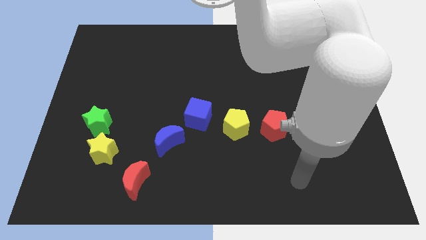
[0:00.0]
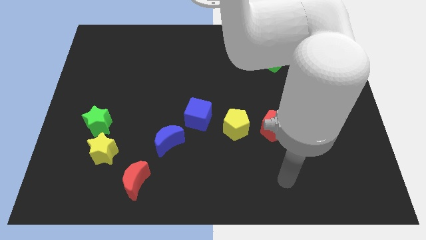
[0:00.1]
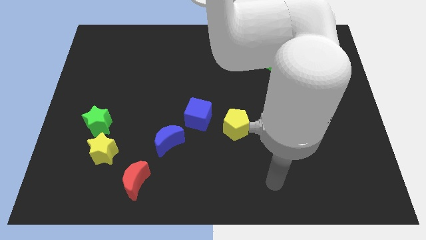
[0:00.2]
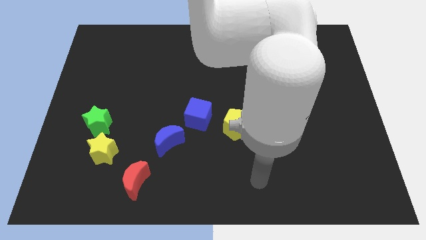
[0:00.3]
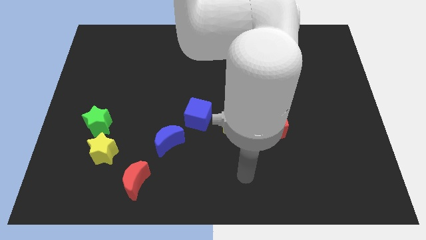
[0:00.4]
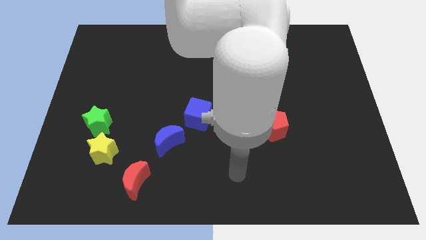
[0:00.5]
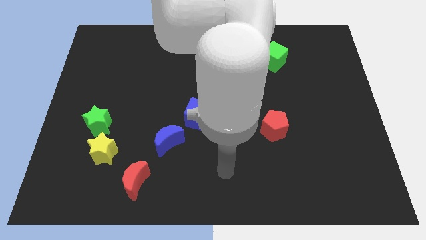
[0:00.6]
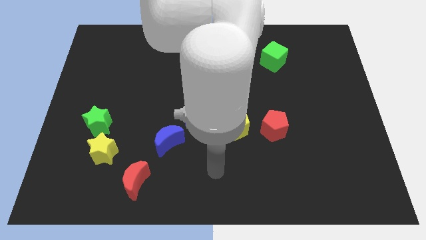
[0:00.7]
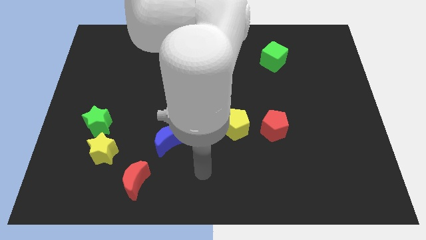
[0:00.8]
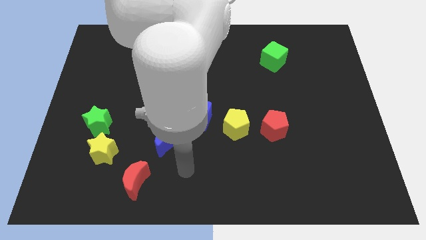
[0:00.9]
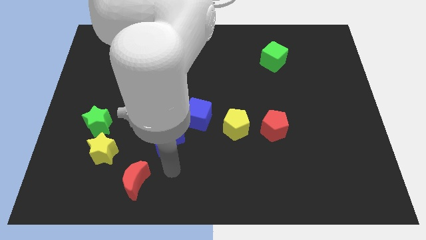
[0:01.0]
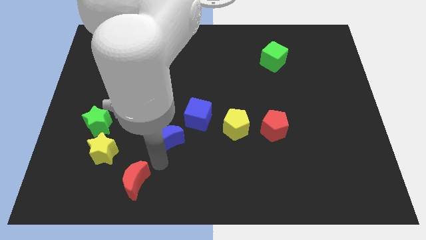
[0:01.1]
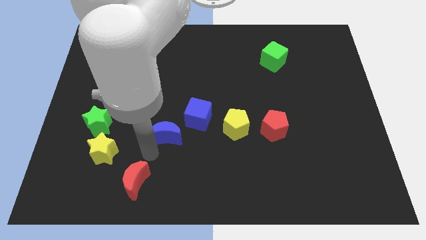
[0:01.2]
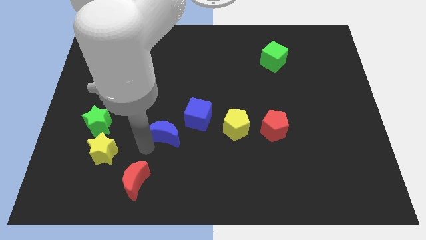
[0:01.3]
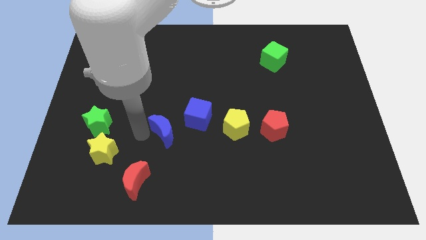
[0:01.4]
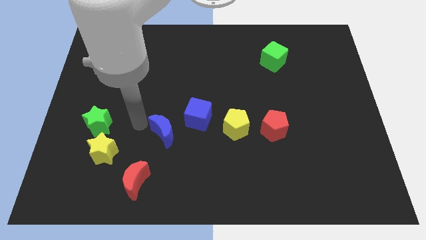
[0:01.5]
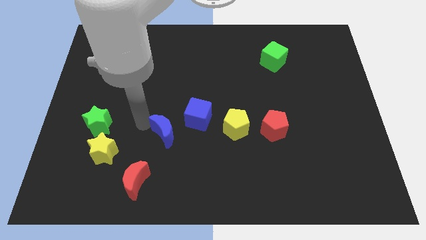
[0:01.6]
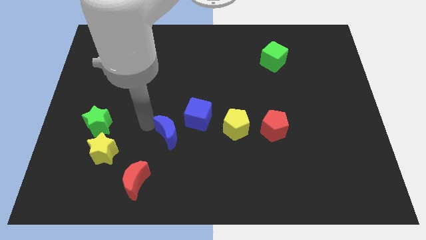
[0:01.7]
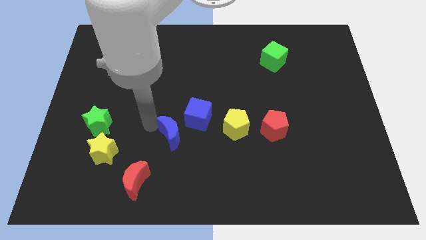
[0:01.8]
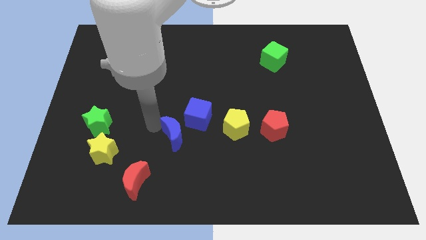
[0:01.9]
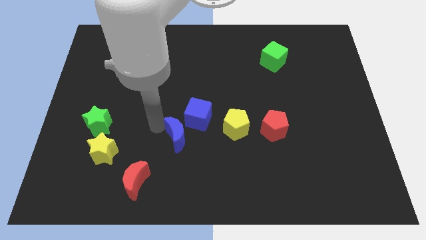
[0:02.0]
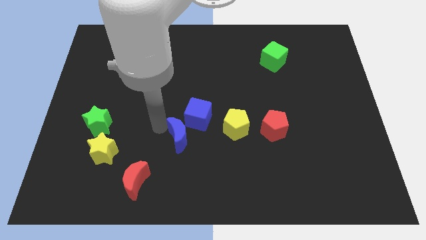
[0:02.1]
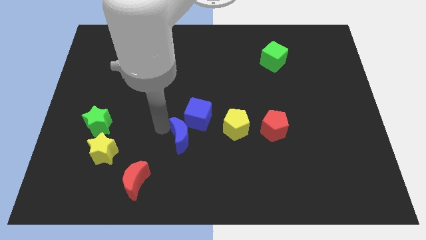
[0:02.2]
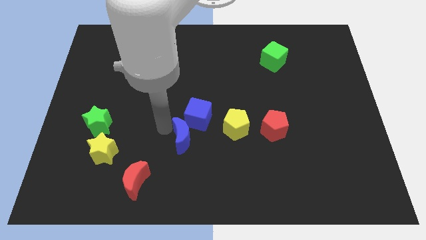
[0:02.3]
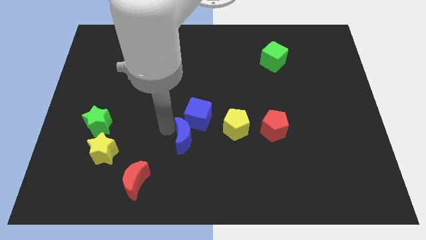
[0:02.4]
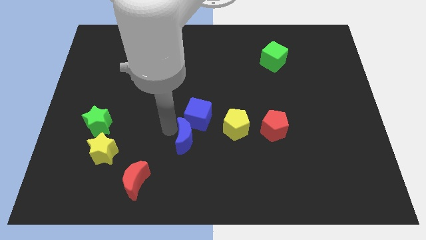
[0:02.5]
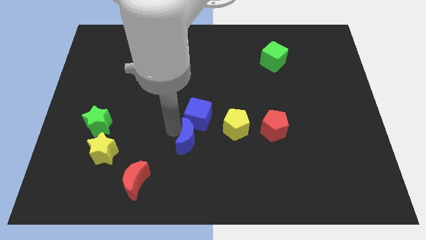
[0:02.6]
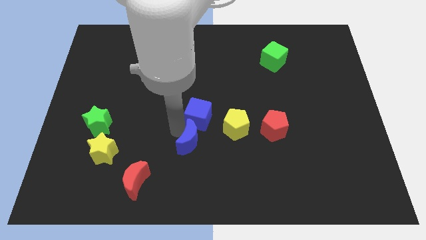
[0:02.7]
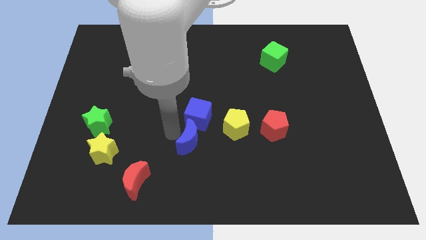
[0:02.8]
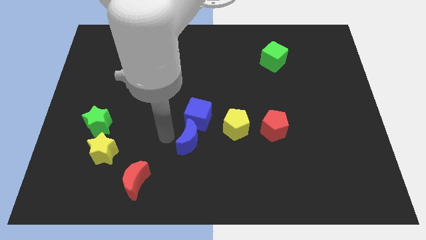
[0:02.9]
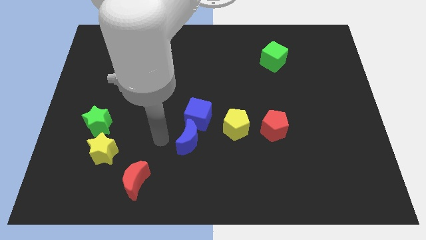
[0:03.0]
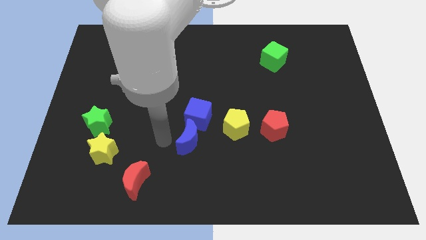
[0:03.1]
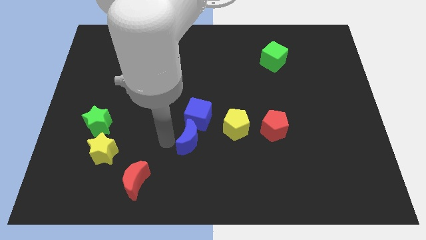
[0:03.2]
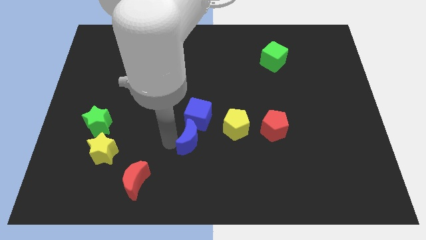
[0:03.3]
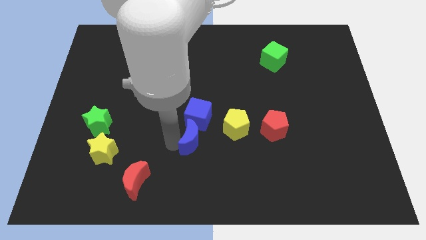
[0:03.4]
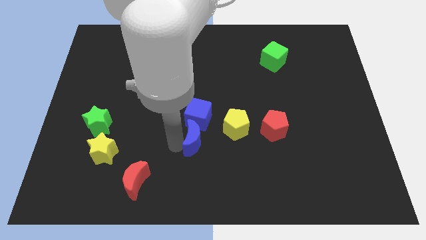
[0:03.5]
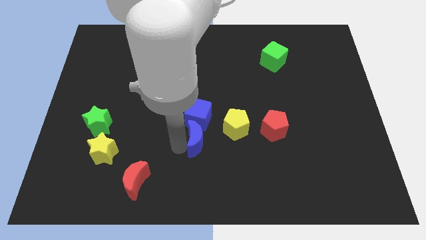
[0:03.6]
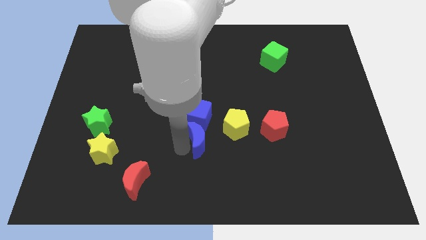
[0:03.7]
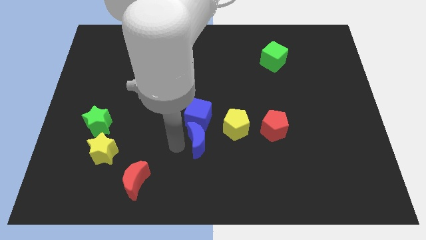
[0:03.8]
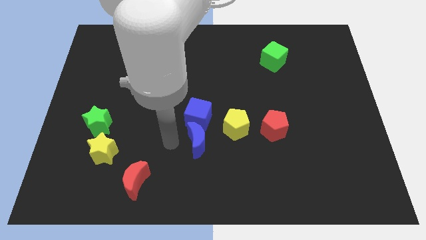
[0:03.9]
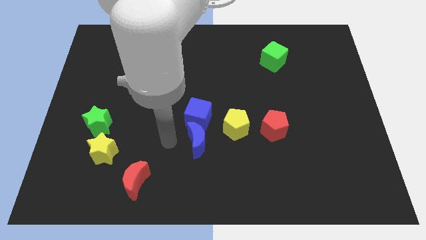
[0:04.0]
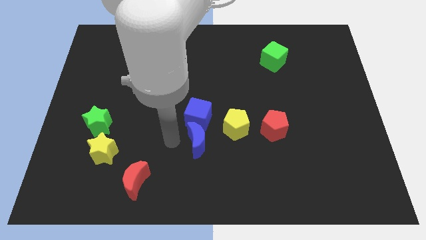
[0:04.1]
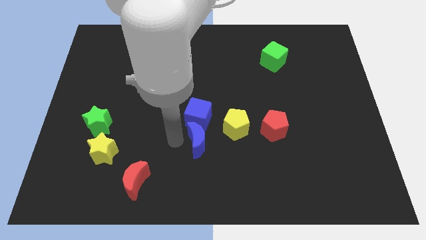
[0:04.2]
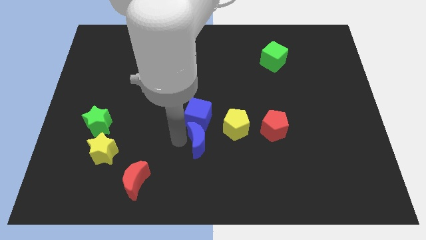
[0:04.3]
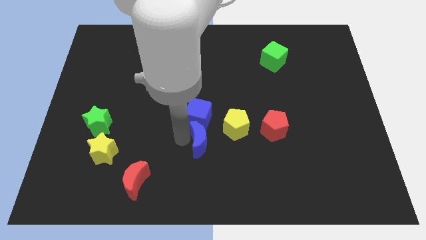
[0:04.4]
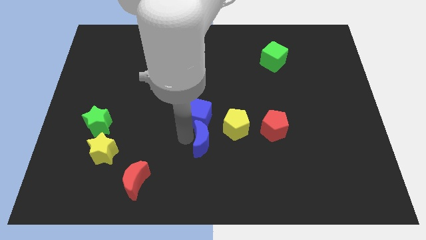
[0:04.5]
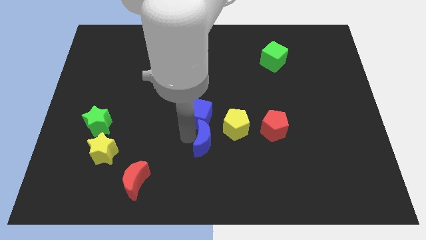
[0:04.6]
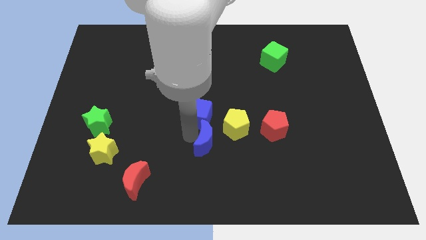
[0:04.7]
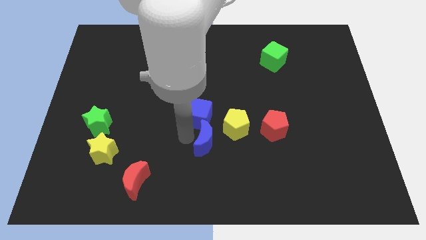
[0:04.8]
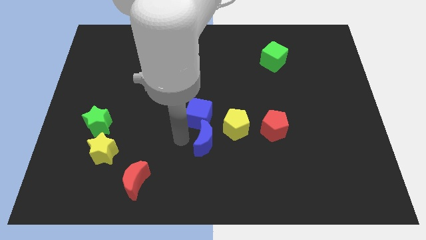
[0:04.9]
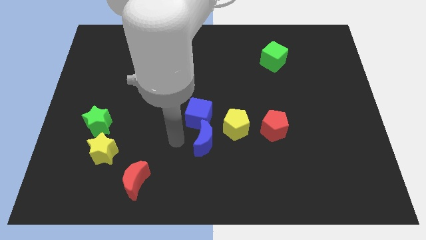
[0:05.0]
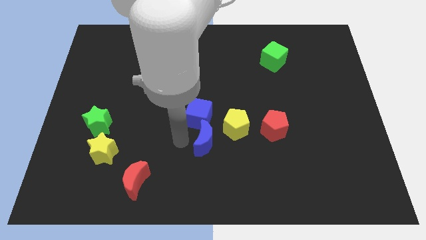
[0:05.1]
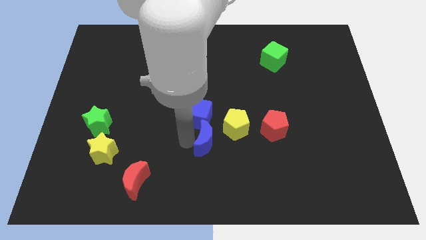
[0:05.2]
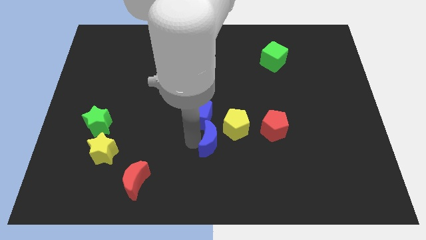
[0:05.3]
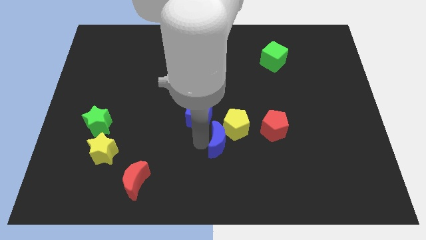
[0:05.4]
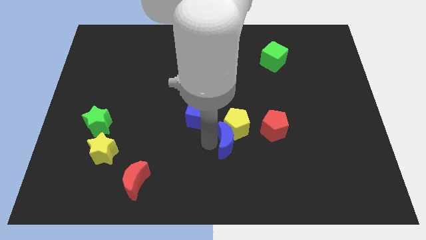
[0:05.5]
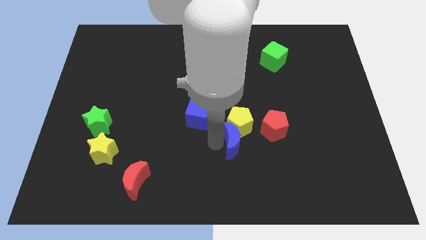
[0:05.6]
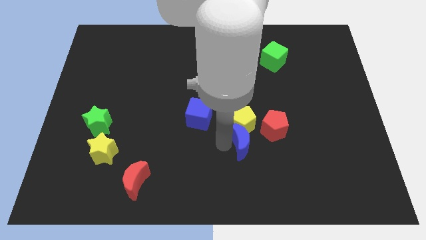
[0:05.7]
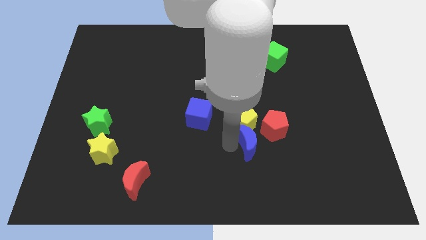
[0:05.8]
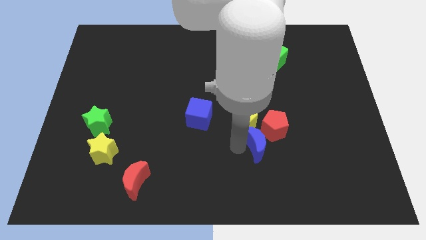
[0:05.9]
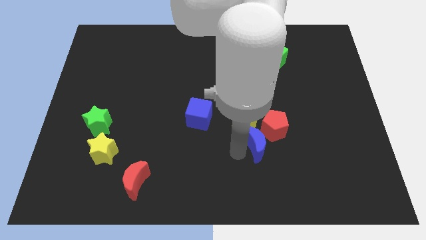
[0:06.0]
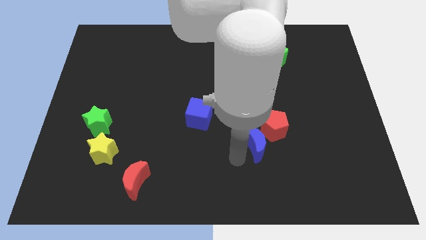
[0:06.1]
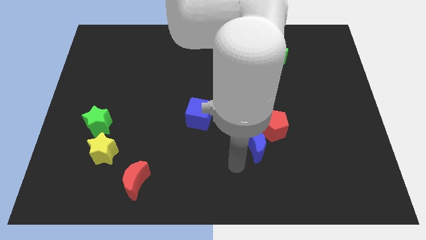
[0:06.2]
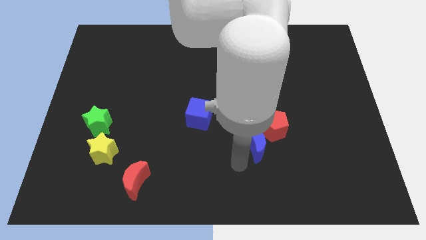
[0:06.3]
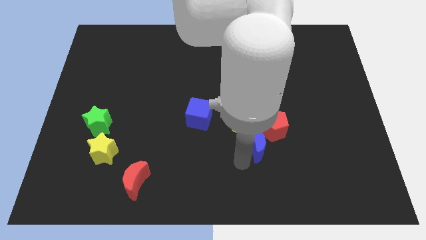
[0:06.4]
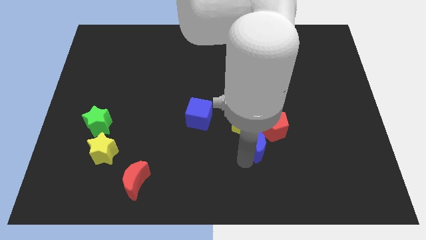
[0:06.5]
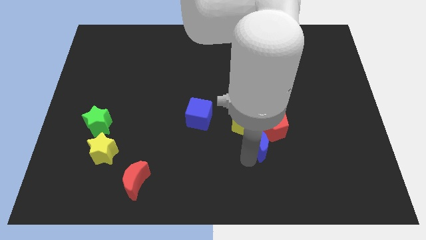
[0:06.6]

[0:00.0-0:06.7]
push the blue moon towards the red pentagon
